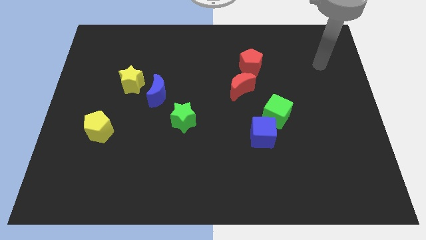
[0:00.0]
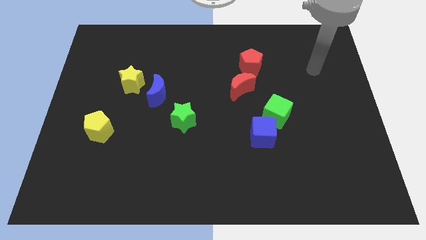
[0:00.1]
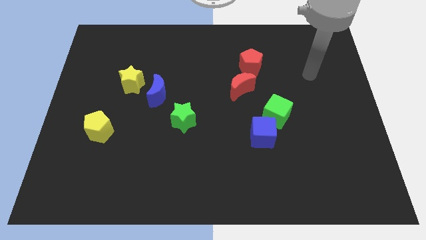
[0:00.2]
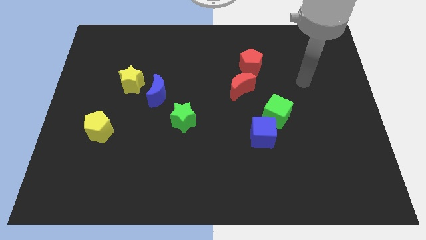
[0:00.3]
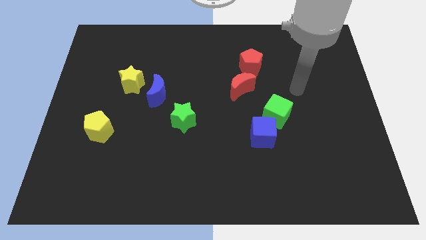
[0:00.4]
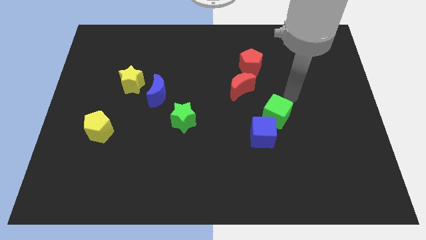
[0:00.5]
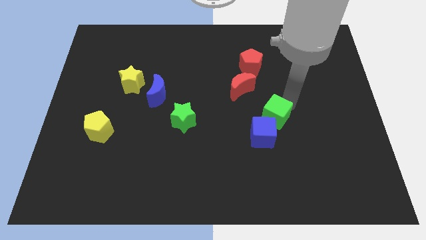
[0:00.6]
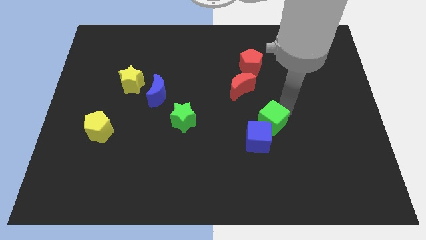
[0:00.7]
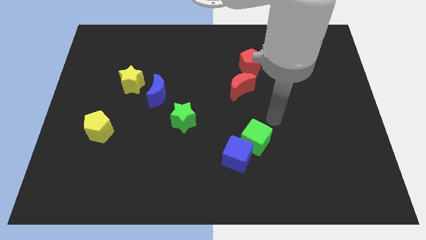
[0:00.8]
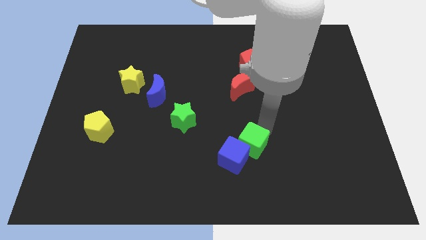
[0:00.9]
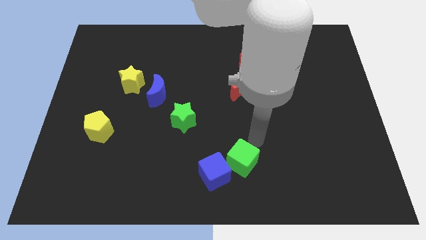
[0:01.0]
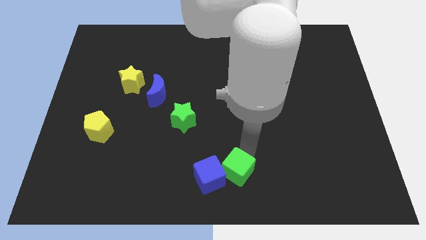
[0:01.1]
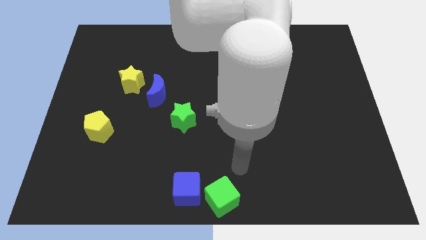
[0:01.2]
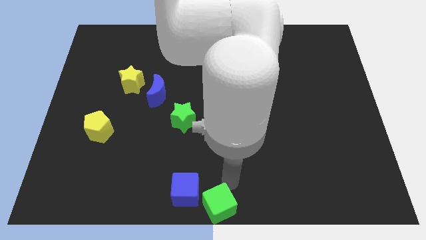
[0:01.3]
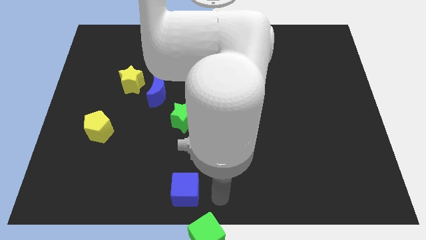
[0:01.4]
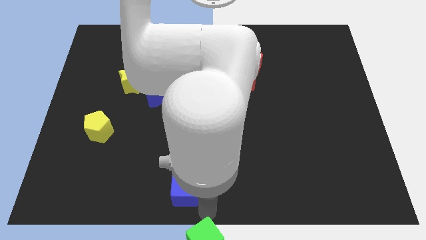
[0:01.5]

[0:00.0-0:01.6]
separate the blue cube from the green cube

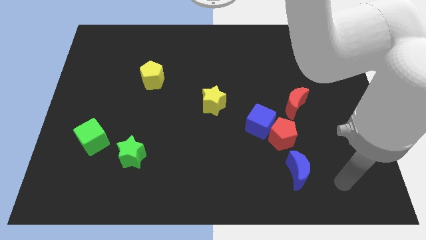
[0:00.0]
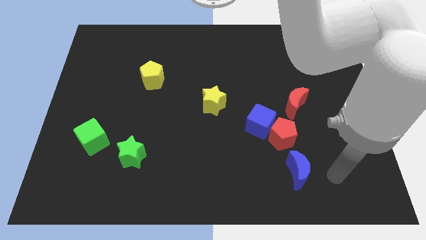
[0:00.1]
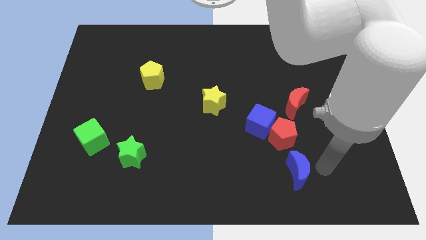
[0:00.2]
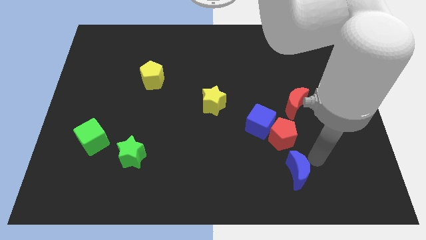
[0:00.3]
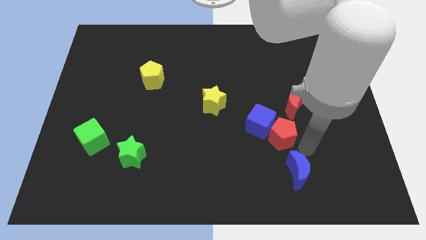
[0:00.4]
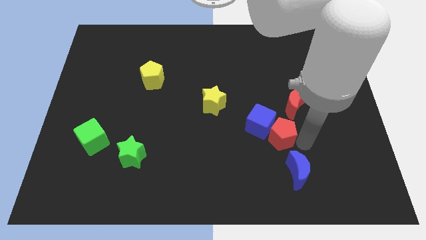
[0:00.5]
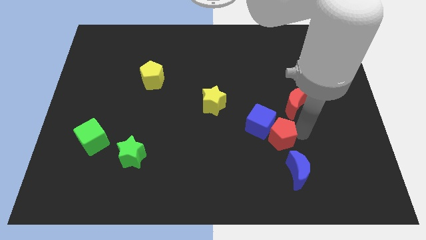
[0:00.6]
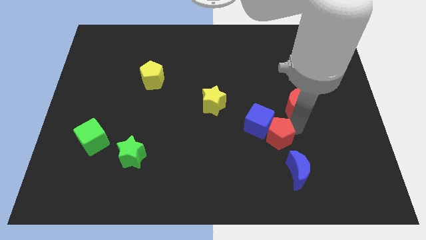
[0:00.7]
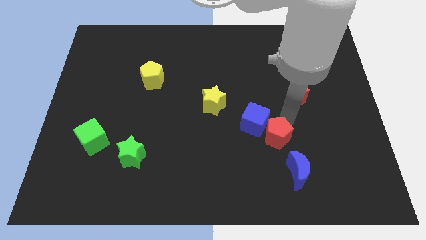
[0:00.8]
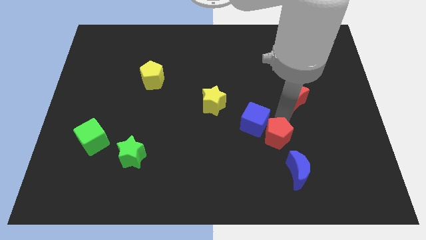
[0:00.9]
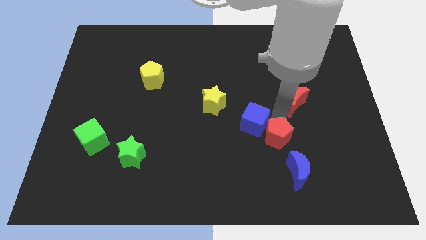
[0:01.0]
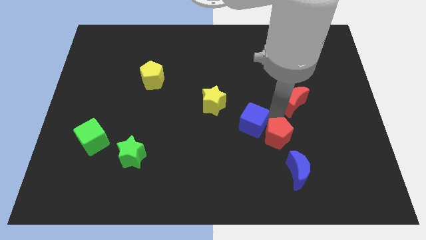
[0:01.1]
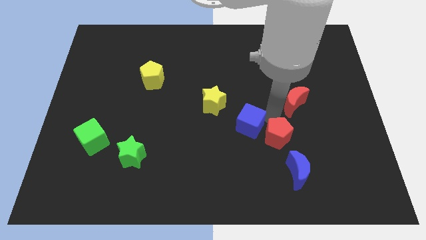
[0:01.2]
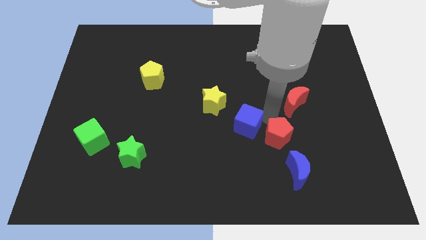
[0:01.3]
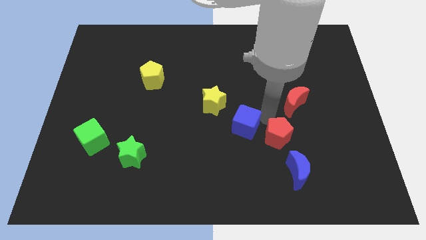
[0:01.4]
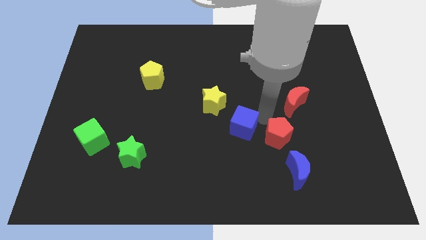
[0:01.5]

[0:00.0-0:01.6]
separate the blue cube from the red pentagon and red moon

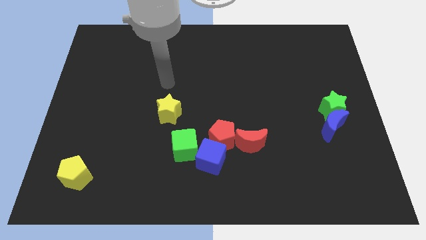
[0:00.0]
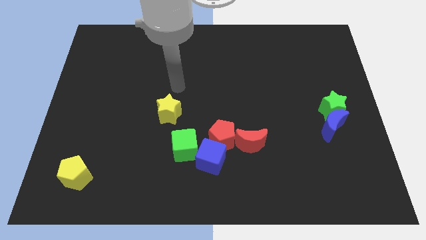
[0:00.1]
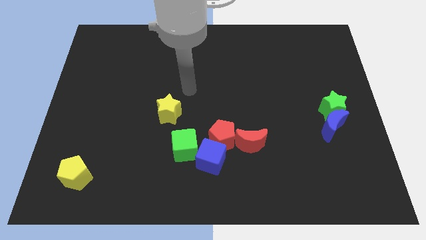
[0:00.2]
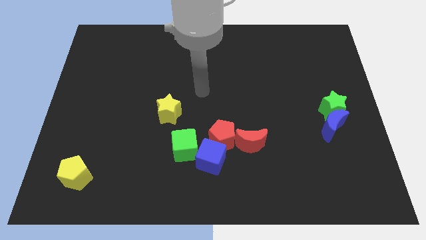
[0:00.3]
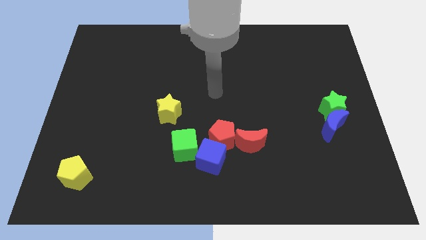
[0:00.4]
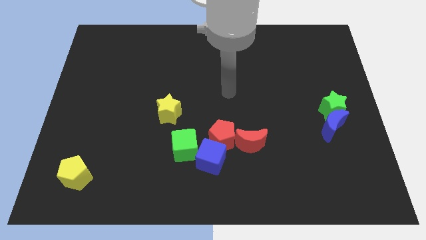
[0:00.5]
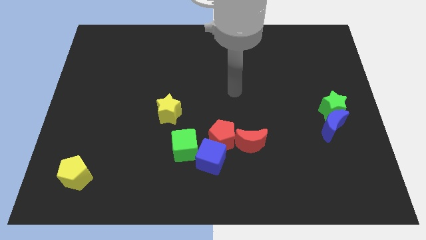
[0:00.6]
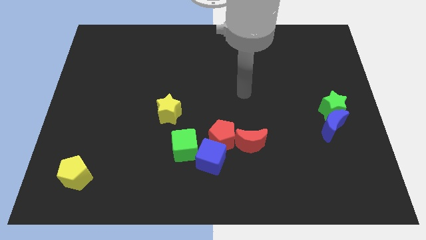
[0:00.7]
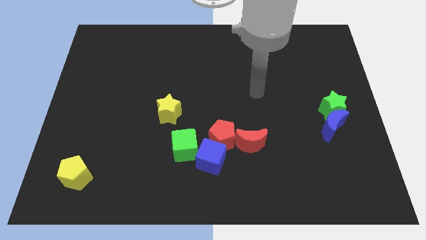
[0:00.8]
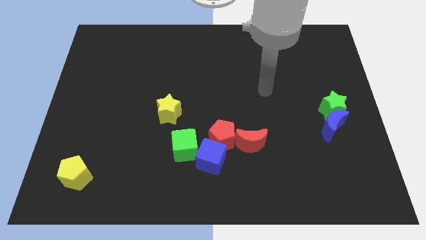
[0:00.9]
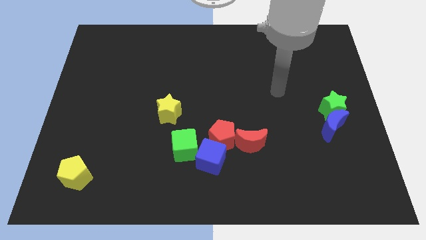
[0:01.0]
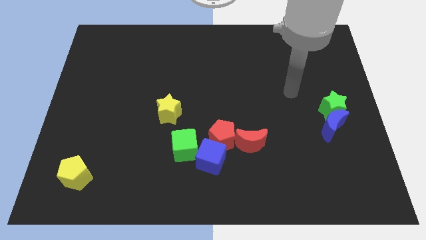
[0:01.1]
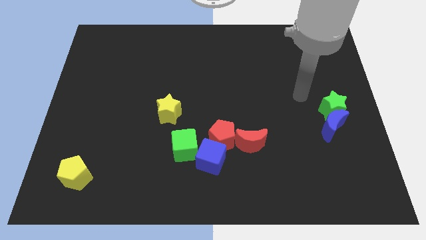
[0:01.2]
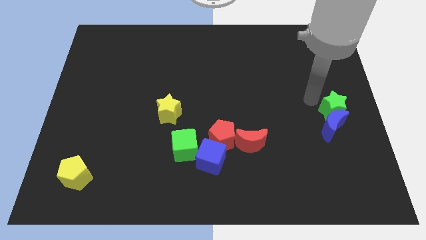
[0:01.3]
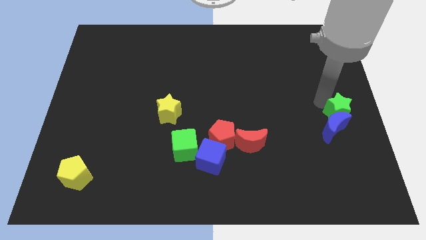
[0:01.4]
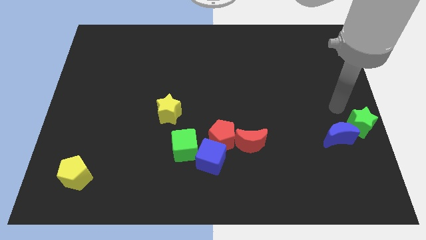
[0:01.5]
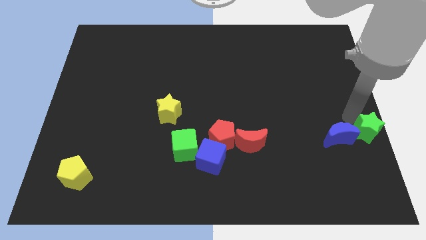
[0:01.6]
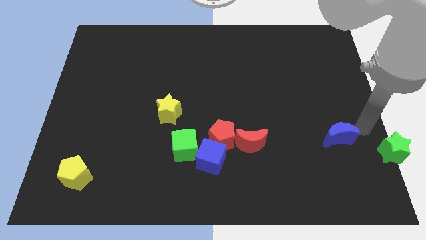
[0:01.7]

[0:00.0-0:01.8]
pull the blue moon apart from the green star

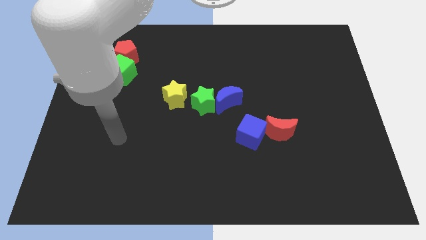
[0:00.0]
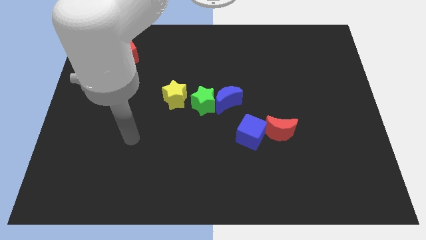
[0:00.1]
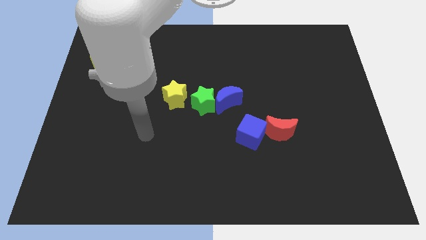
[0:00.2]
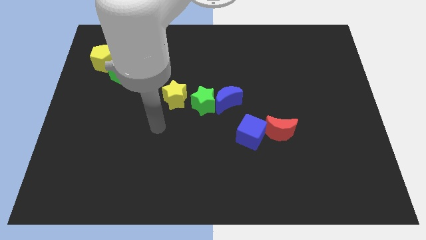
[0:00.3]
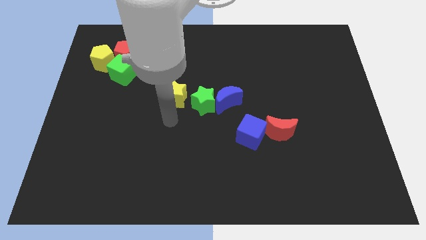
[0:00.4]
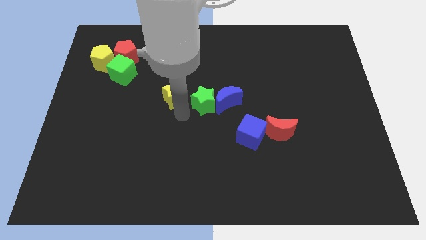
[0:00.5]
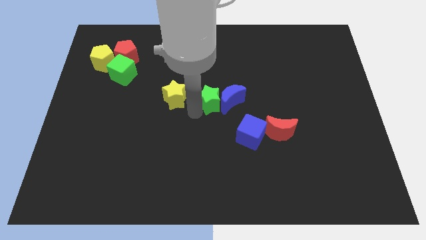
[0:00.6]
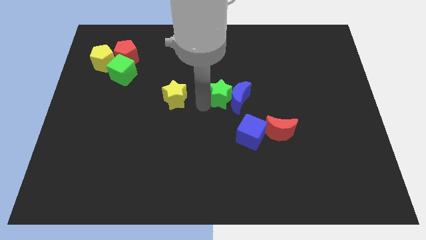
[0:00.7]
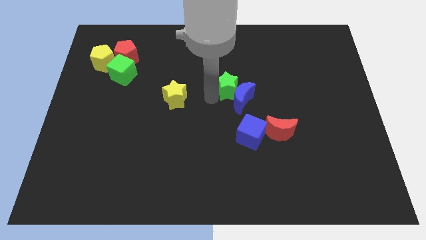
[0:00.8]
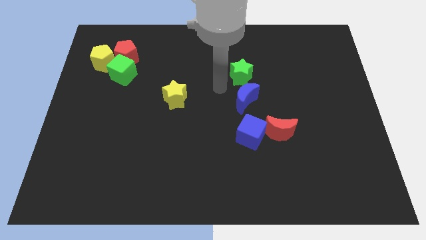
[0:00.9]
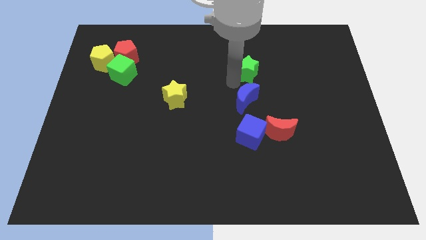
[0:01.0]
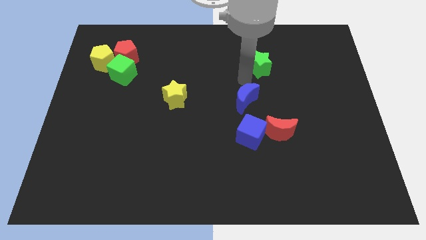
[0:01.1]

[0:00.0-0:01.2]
move the blue moon away from the green star

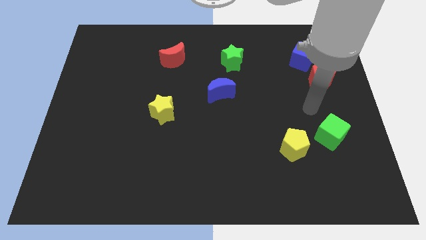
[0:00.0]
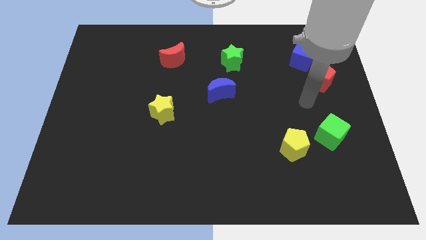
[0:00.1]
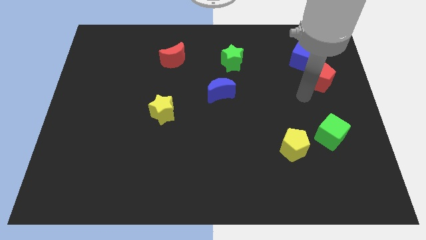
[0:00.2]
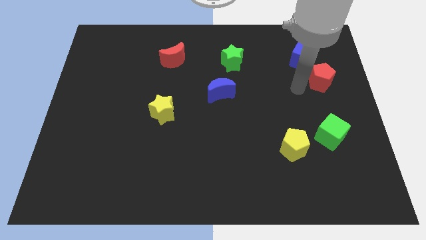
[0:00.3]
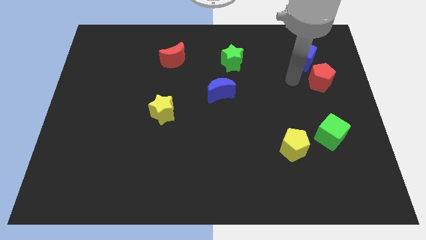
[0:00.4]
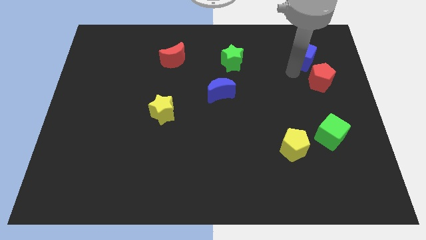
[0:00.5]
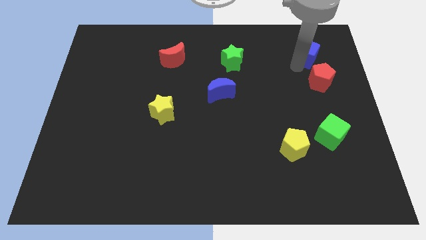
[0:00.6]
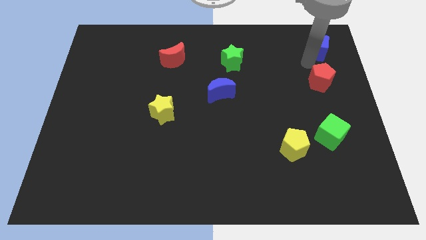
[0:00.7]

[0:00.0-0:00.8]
pull the red pentagon apart from the blue cube

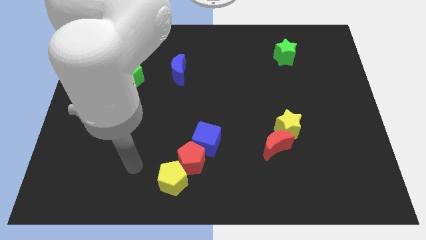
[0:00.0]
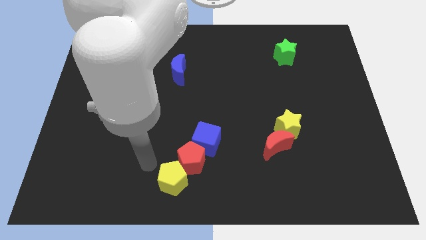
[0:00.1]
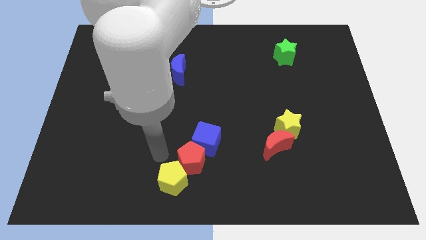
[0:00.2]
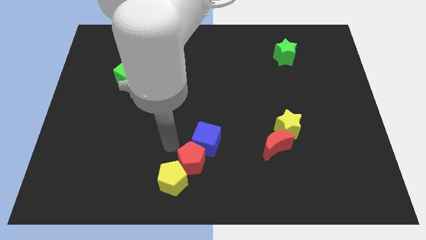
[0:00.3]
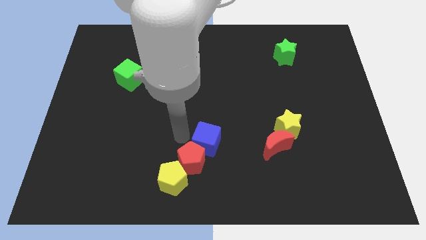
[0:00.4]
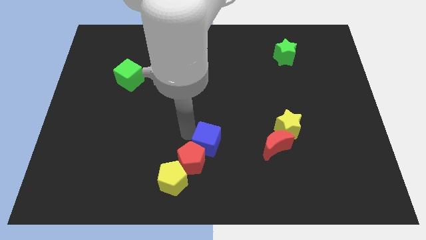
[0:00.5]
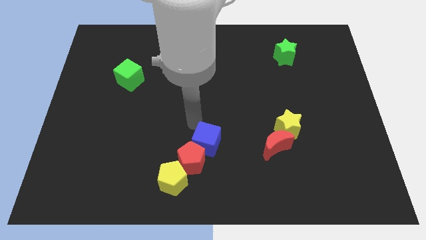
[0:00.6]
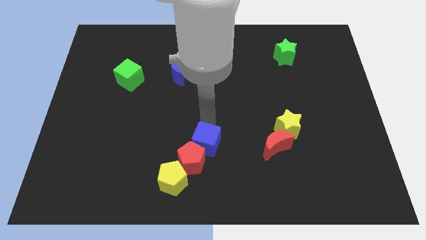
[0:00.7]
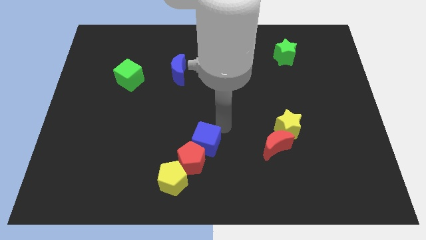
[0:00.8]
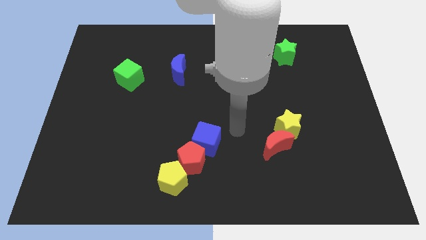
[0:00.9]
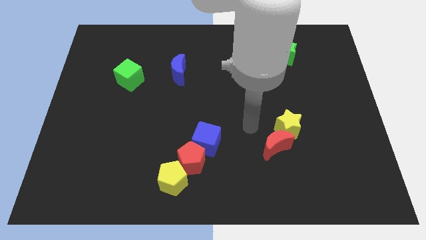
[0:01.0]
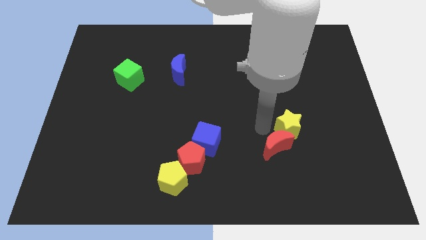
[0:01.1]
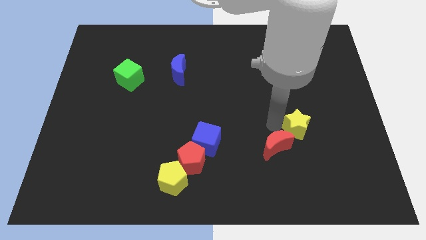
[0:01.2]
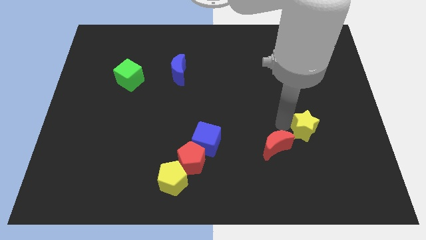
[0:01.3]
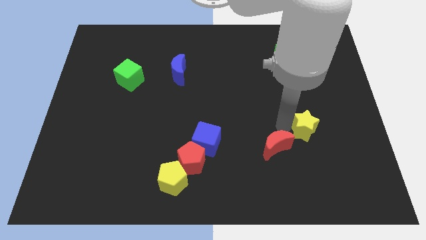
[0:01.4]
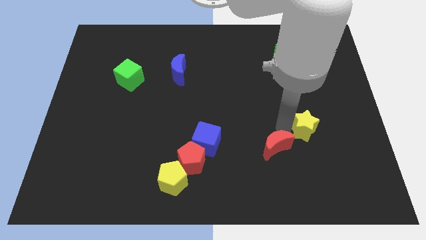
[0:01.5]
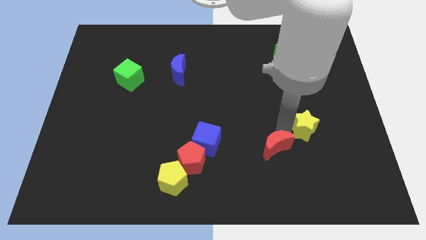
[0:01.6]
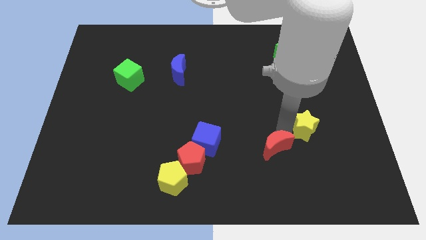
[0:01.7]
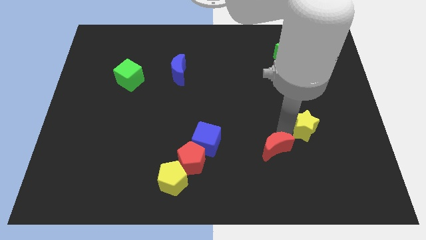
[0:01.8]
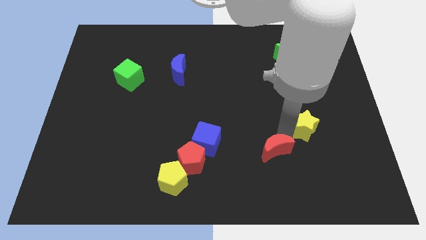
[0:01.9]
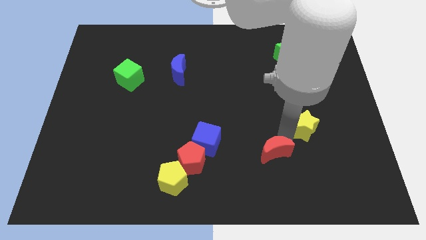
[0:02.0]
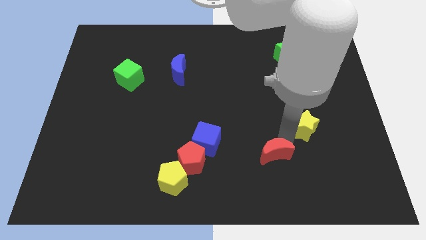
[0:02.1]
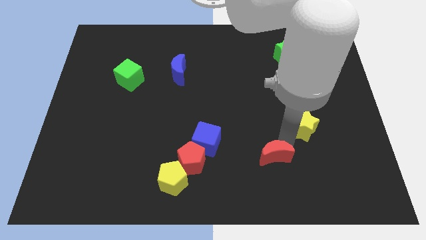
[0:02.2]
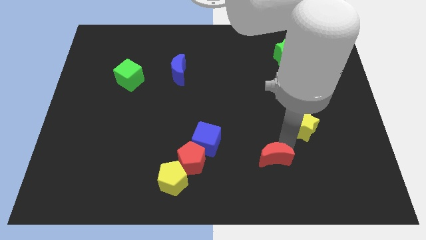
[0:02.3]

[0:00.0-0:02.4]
move the red moon away from the yellow star
